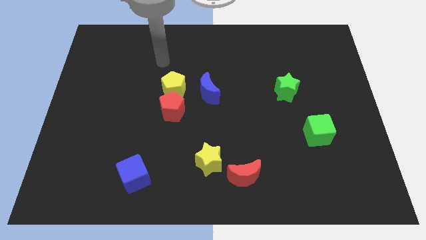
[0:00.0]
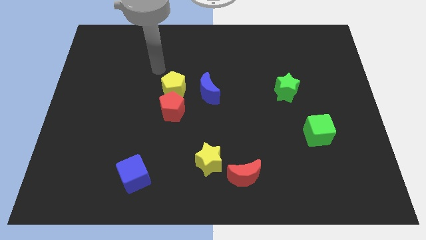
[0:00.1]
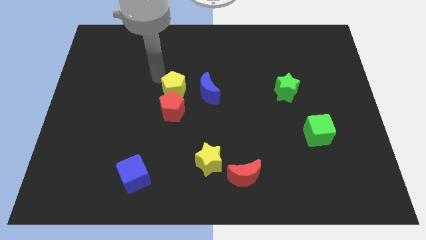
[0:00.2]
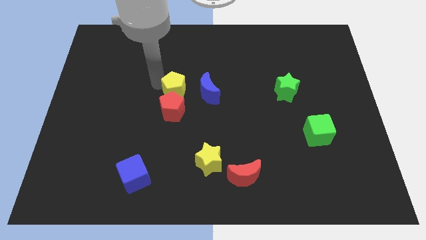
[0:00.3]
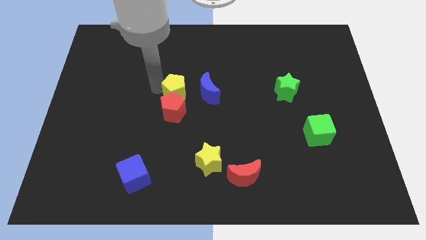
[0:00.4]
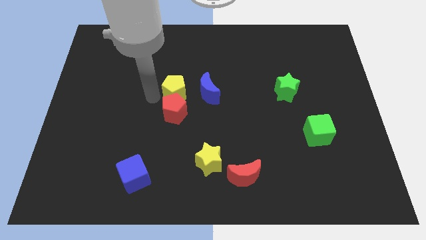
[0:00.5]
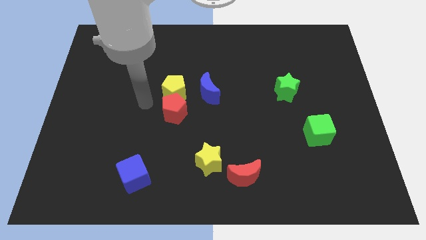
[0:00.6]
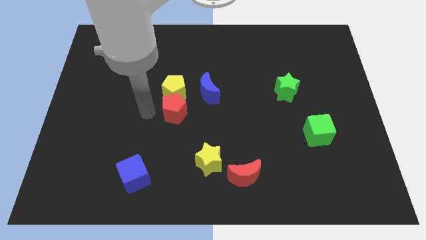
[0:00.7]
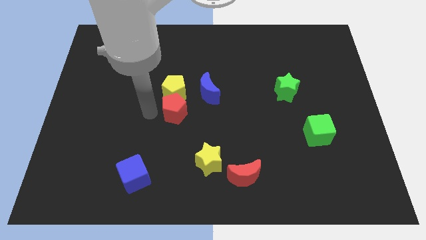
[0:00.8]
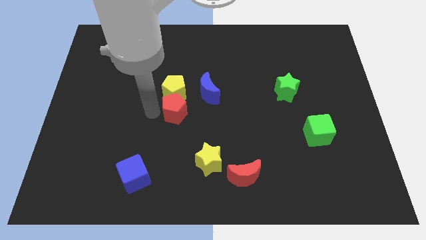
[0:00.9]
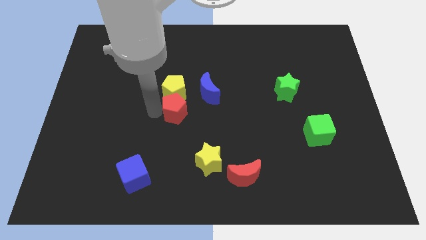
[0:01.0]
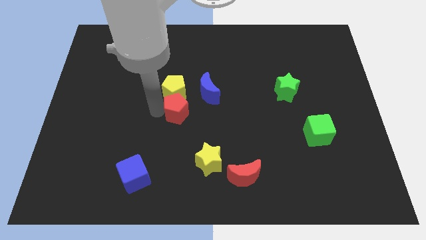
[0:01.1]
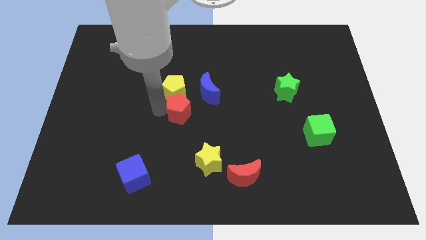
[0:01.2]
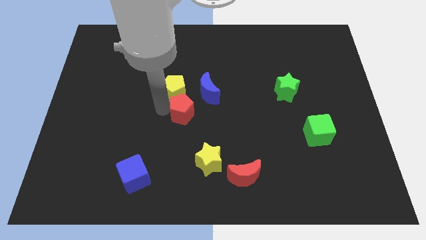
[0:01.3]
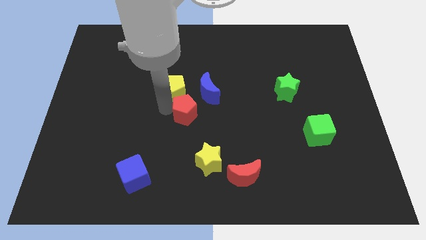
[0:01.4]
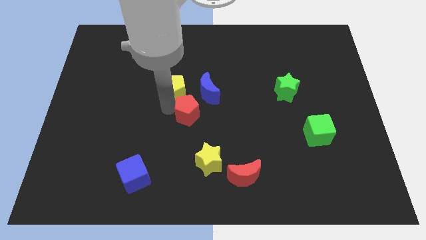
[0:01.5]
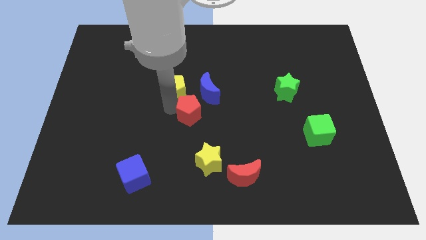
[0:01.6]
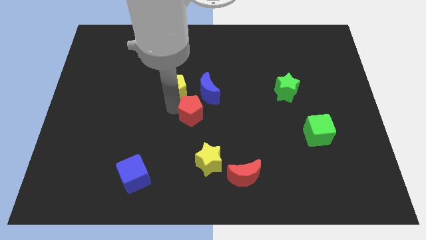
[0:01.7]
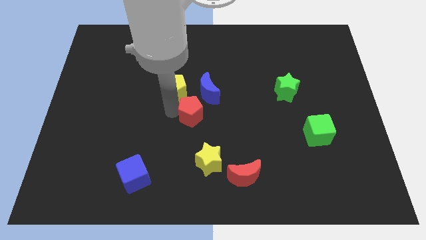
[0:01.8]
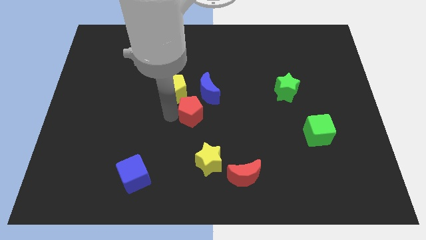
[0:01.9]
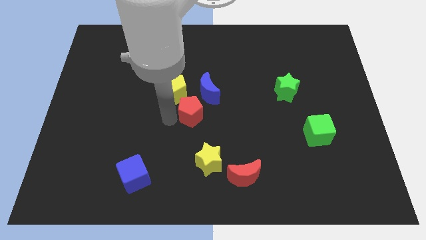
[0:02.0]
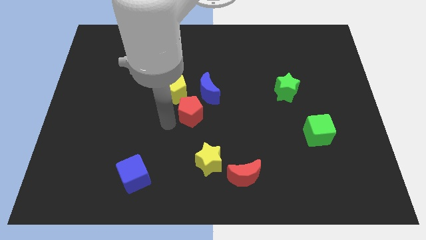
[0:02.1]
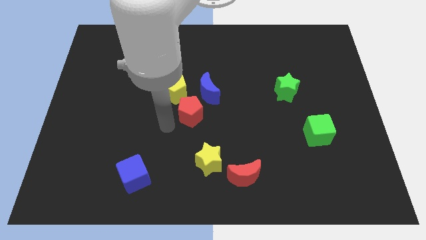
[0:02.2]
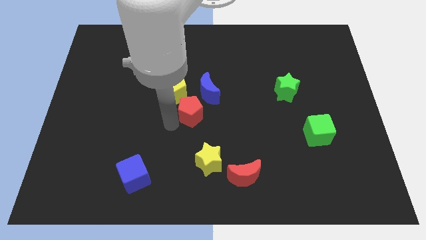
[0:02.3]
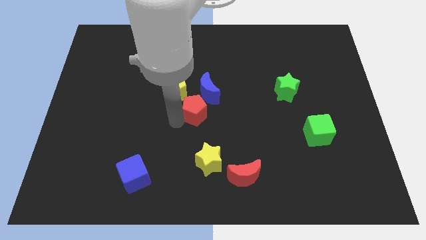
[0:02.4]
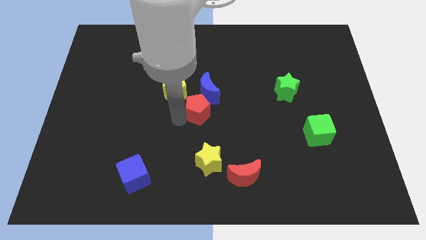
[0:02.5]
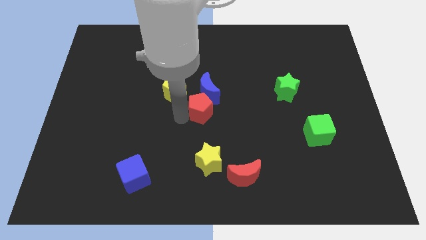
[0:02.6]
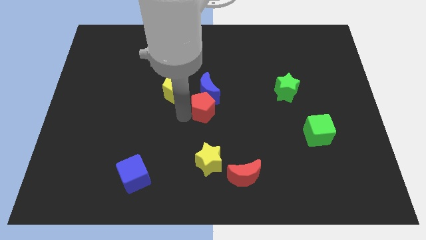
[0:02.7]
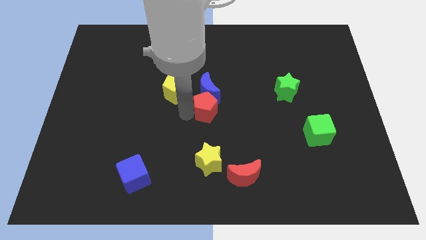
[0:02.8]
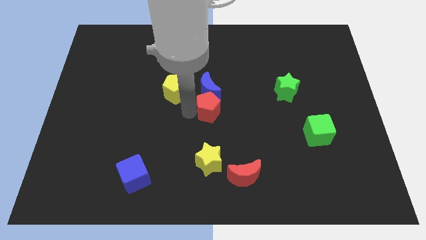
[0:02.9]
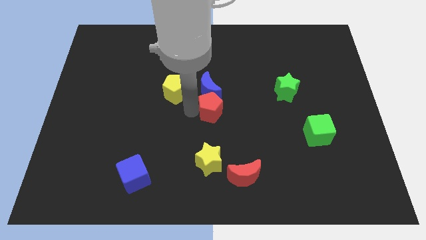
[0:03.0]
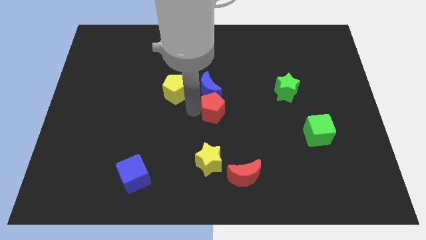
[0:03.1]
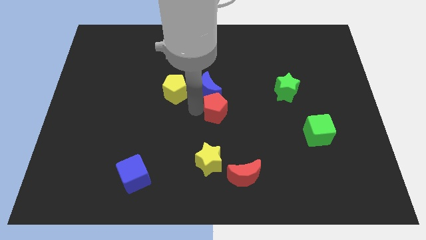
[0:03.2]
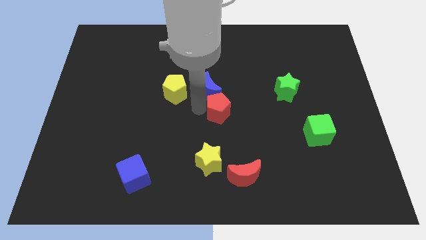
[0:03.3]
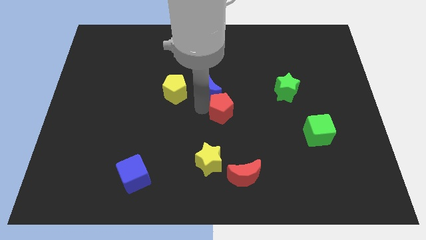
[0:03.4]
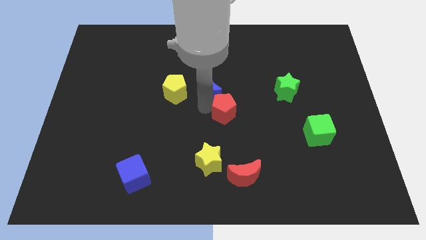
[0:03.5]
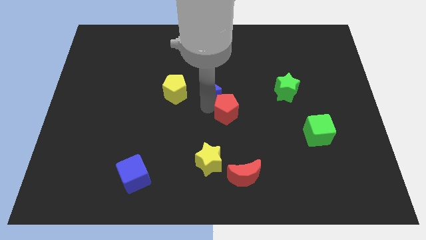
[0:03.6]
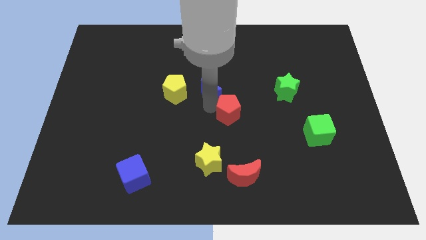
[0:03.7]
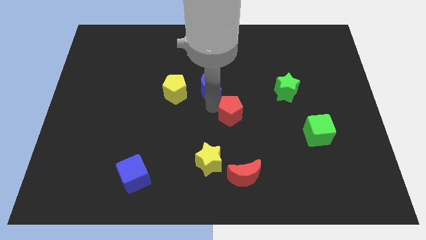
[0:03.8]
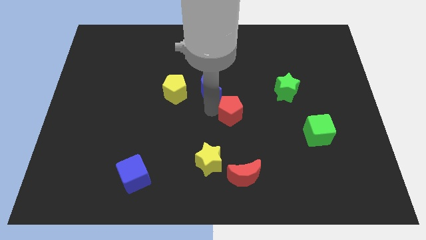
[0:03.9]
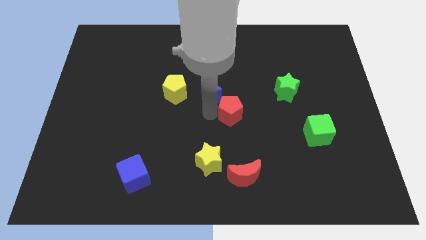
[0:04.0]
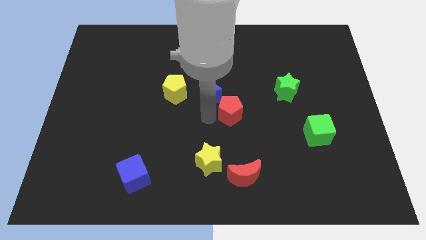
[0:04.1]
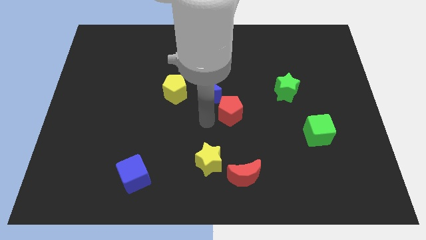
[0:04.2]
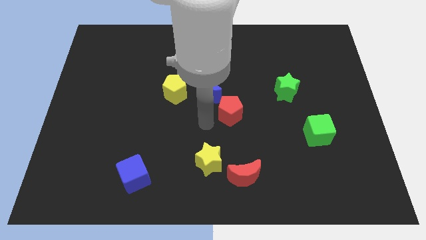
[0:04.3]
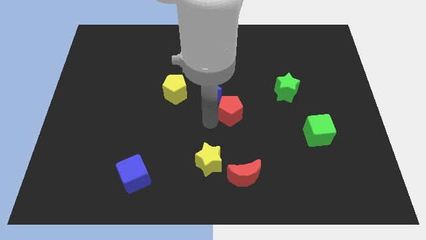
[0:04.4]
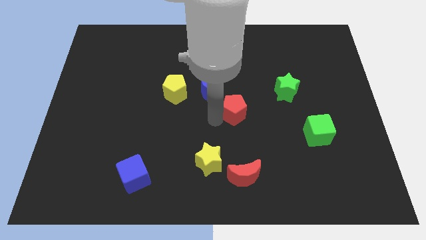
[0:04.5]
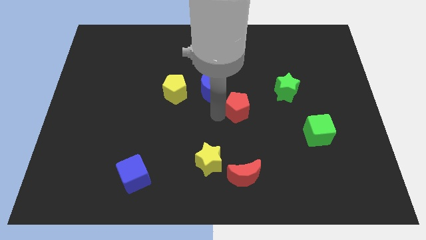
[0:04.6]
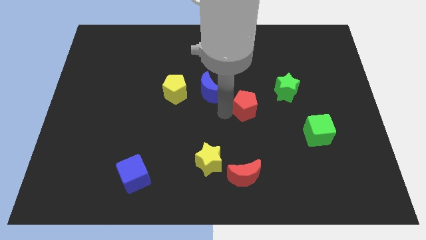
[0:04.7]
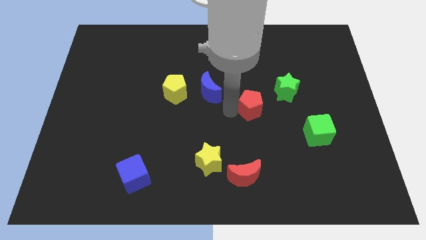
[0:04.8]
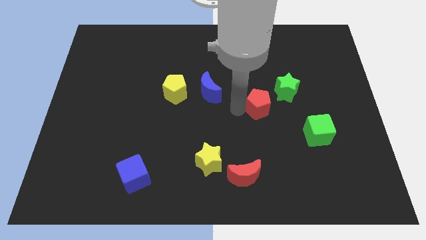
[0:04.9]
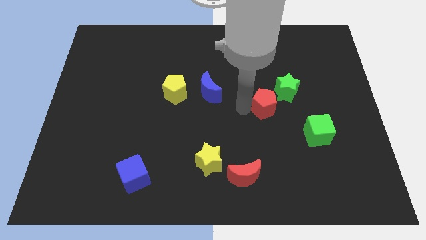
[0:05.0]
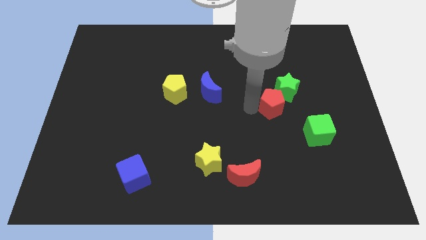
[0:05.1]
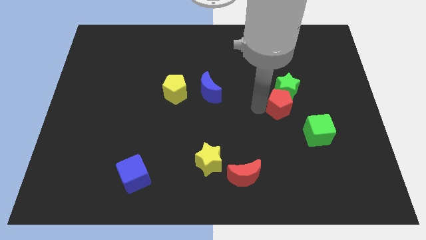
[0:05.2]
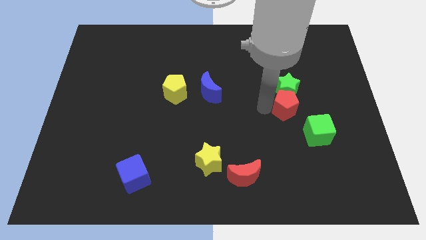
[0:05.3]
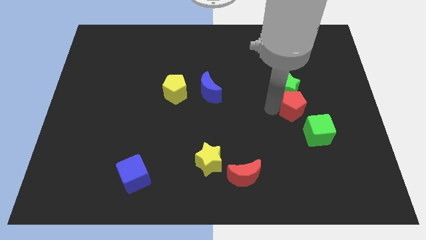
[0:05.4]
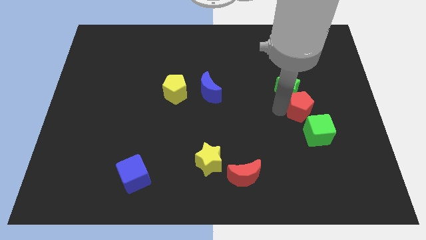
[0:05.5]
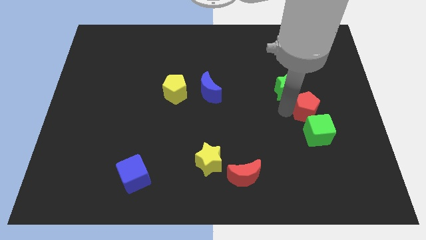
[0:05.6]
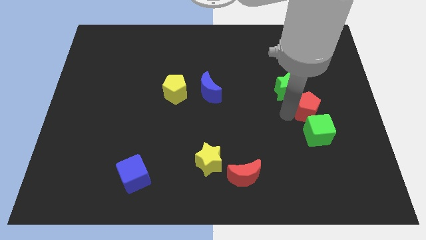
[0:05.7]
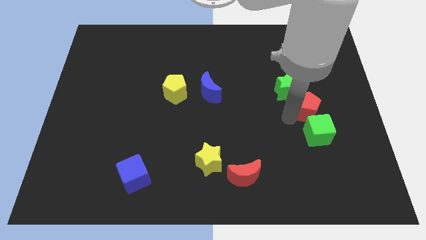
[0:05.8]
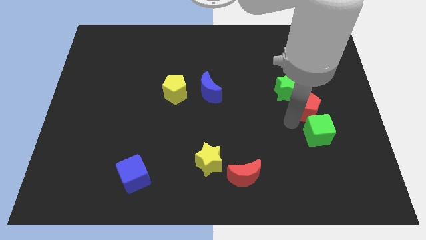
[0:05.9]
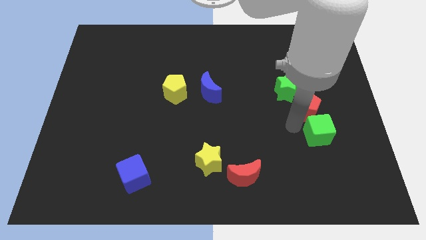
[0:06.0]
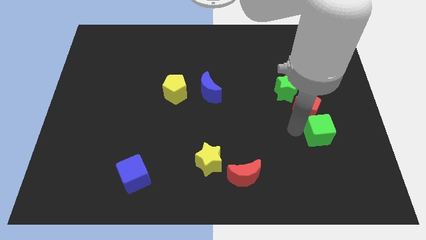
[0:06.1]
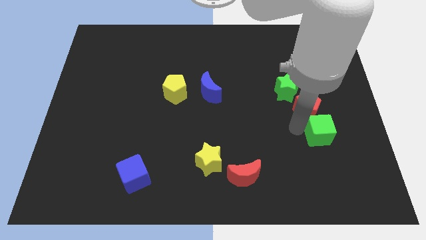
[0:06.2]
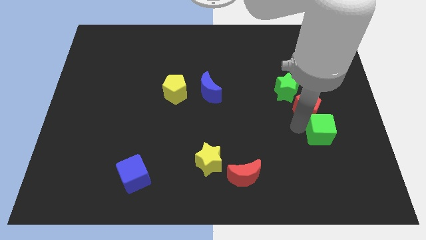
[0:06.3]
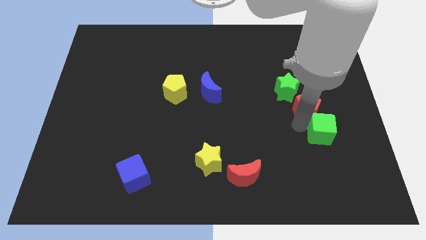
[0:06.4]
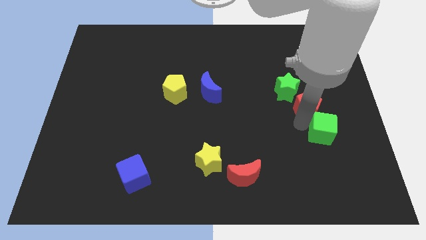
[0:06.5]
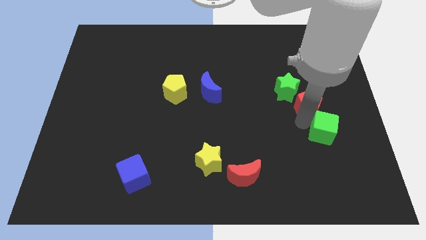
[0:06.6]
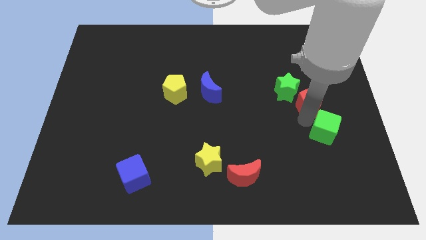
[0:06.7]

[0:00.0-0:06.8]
push the red pentagon just right of the green star
